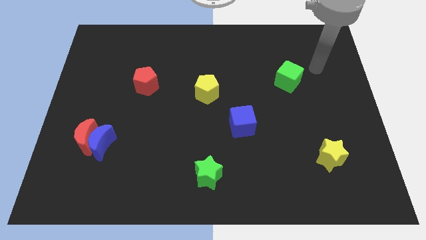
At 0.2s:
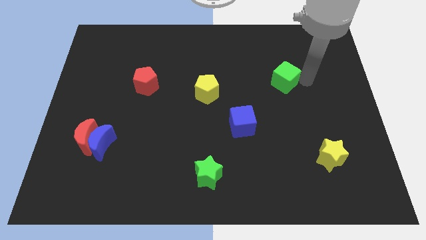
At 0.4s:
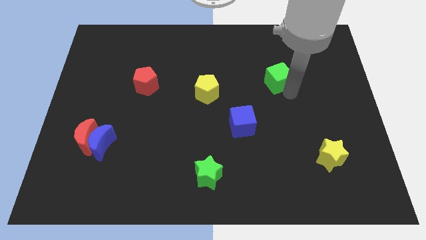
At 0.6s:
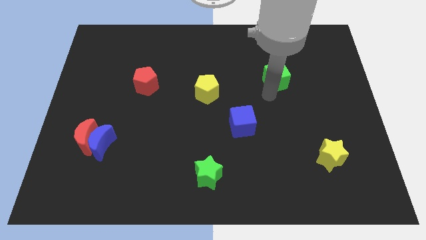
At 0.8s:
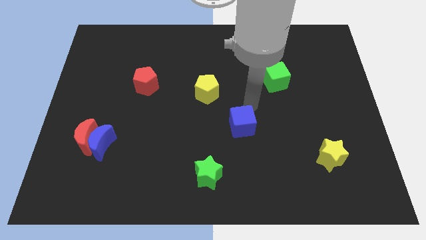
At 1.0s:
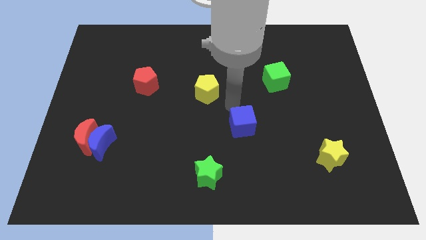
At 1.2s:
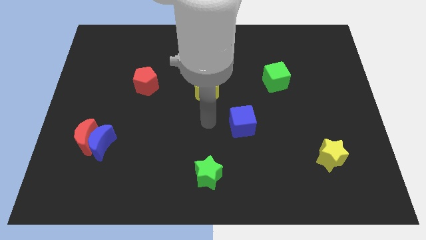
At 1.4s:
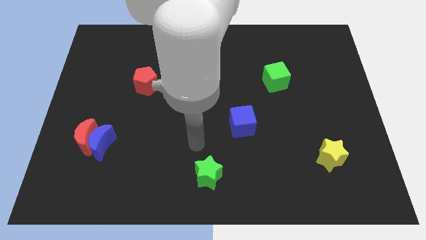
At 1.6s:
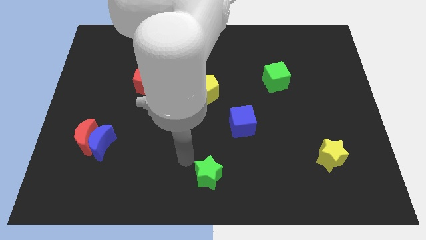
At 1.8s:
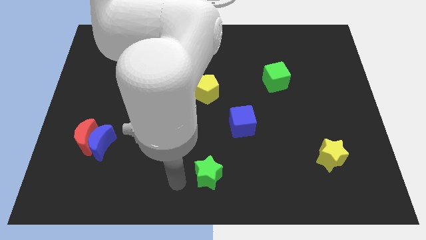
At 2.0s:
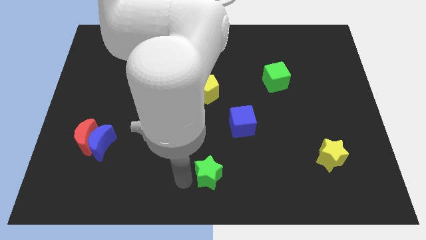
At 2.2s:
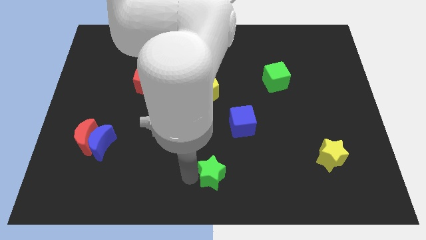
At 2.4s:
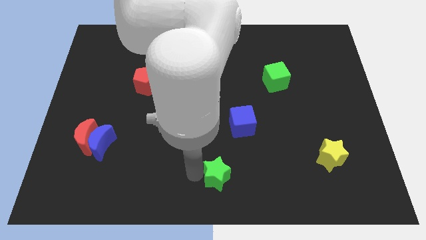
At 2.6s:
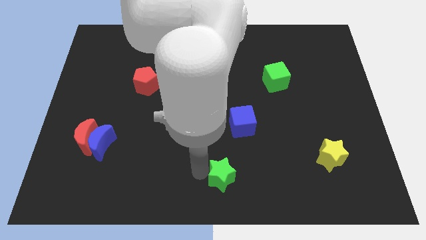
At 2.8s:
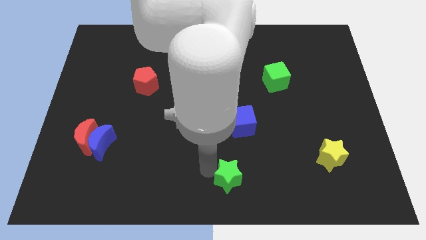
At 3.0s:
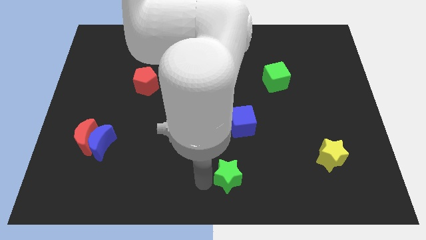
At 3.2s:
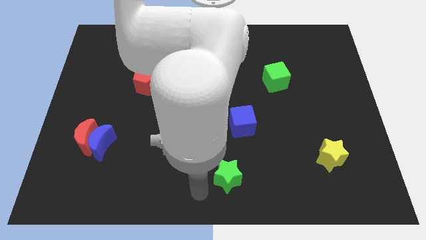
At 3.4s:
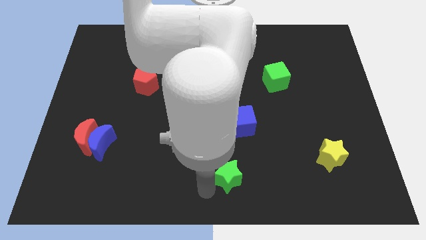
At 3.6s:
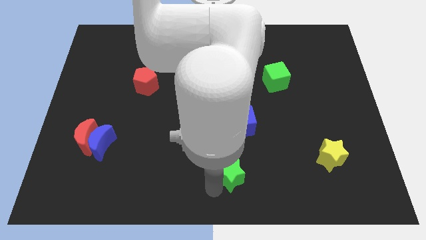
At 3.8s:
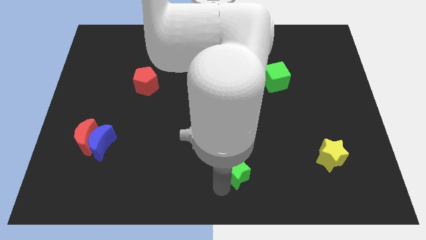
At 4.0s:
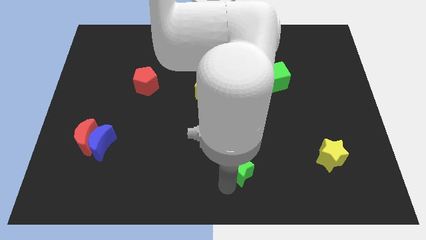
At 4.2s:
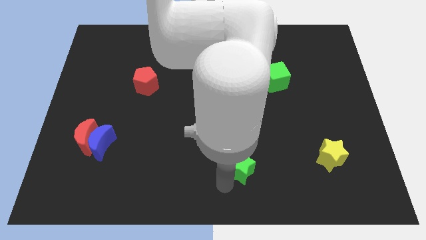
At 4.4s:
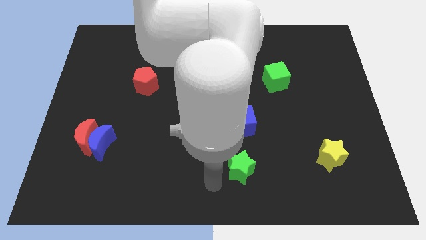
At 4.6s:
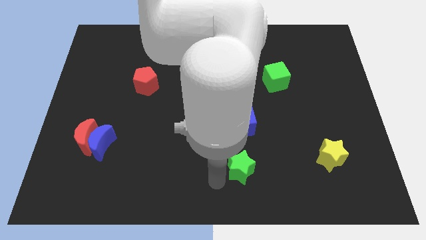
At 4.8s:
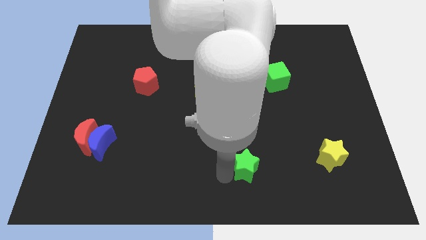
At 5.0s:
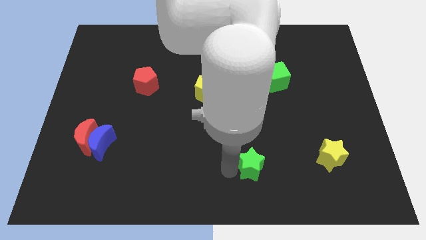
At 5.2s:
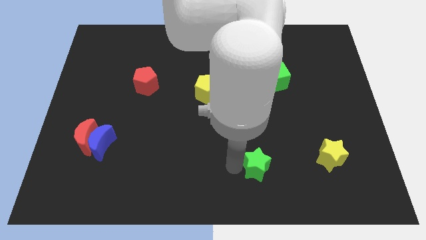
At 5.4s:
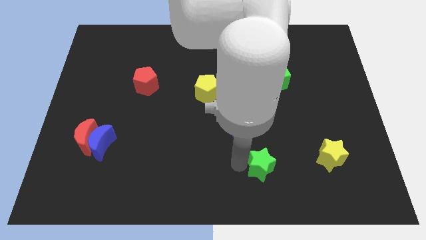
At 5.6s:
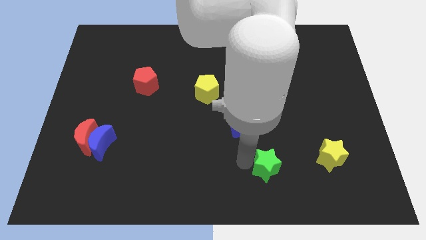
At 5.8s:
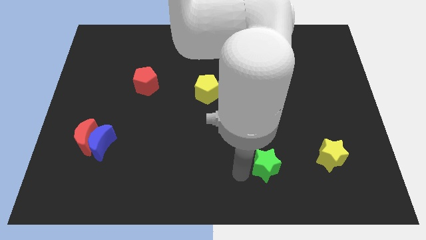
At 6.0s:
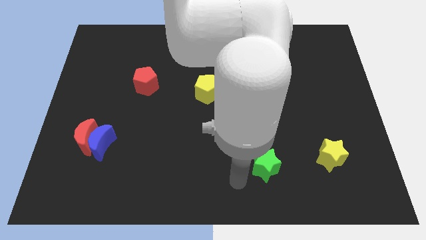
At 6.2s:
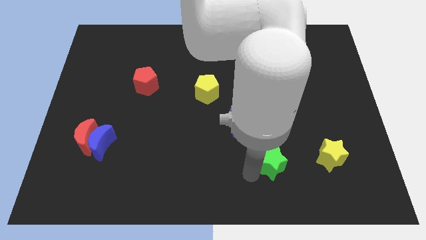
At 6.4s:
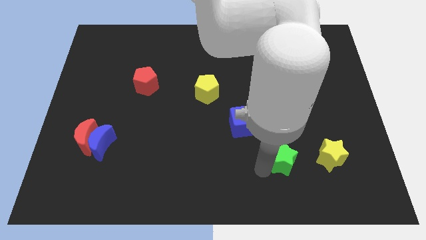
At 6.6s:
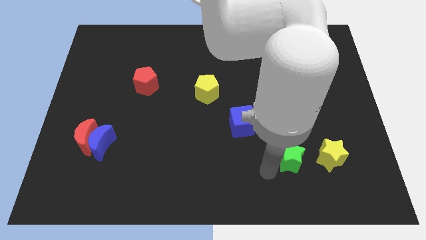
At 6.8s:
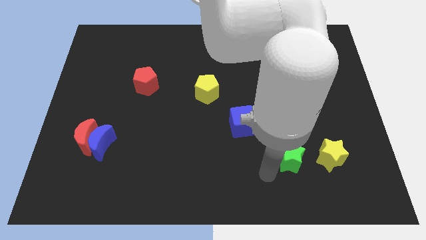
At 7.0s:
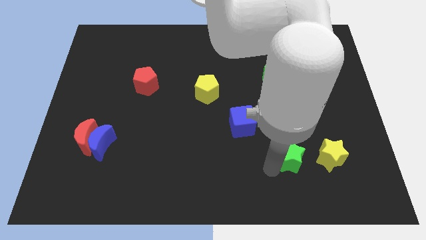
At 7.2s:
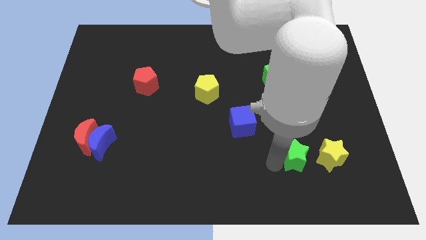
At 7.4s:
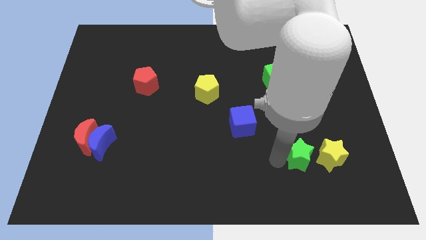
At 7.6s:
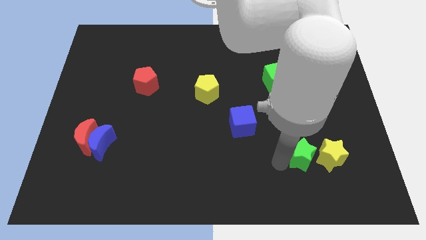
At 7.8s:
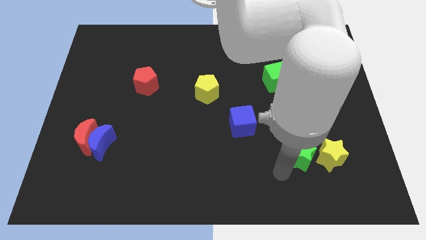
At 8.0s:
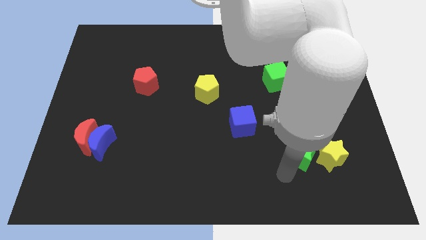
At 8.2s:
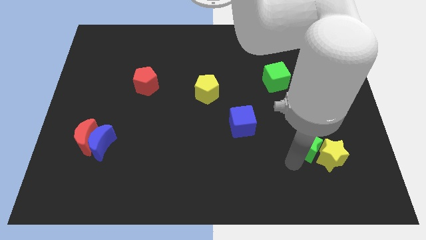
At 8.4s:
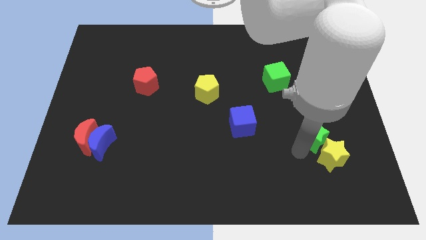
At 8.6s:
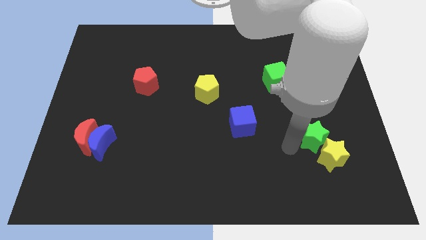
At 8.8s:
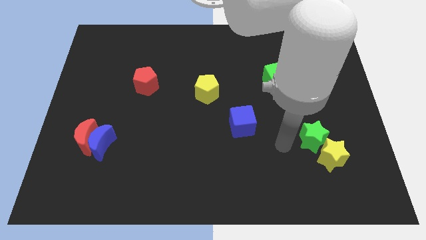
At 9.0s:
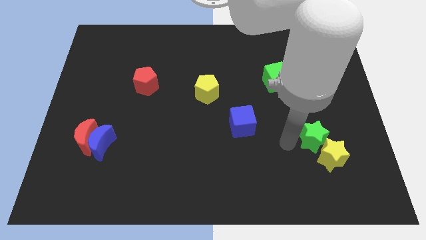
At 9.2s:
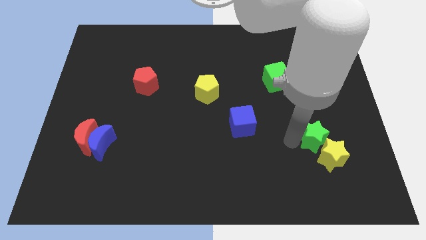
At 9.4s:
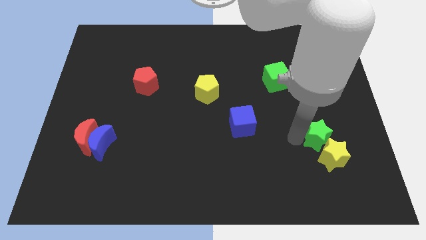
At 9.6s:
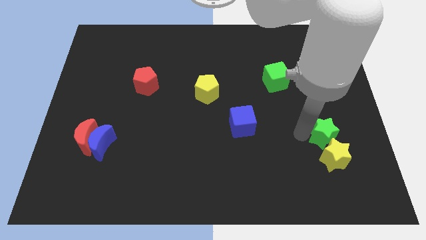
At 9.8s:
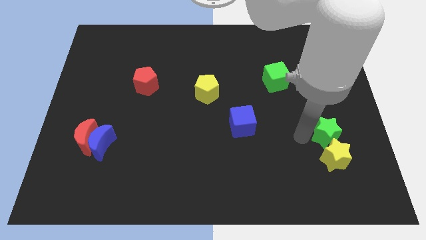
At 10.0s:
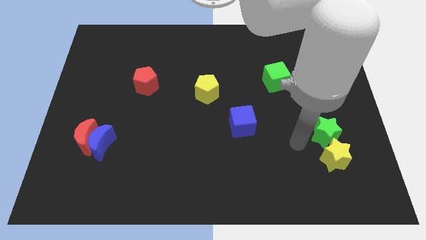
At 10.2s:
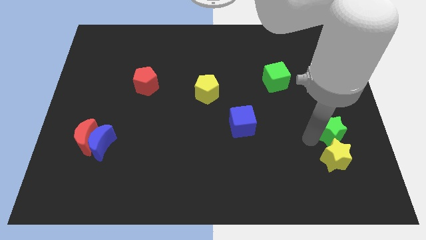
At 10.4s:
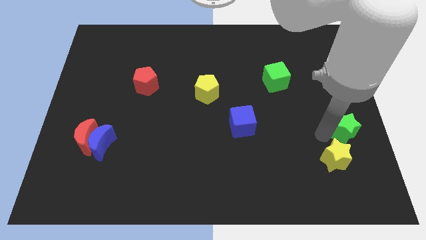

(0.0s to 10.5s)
slide the green star to the right side of the board

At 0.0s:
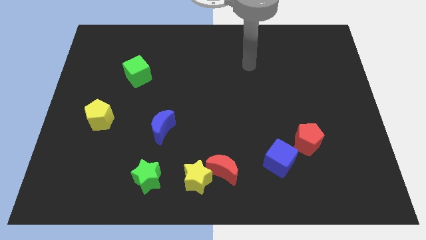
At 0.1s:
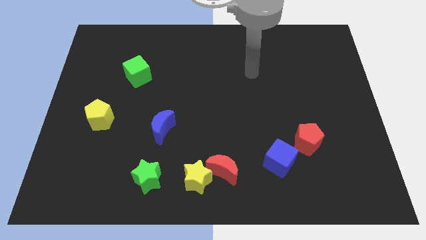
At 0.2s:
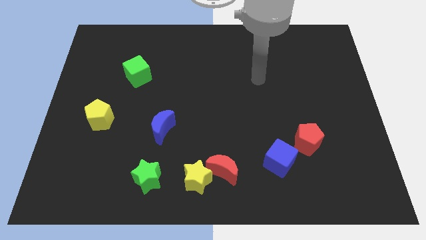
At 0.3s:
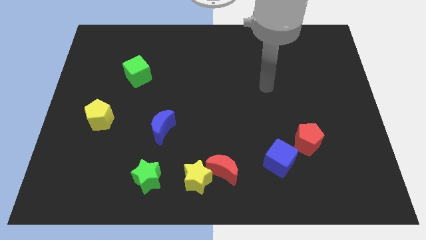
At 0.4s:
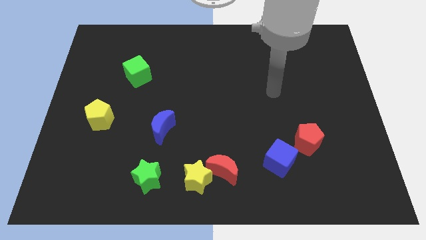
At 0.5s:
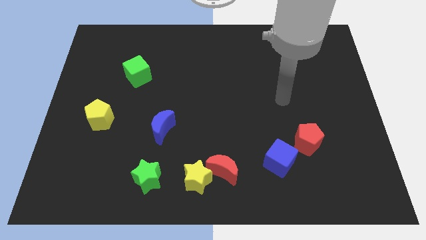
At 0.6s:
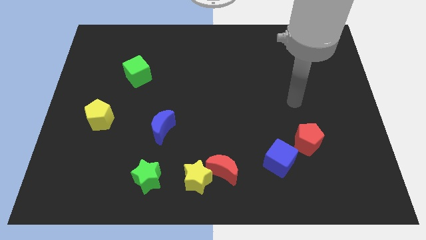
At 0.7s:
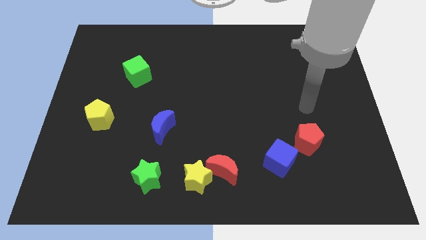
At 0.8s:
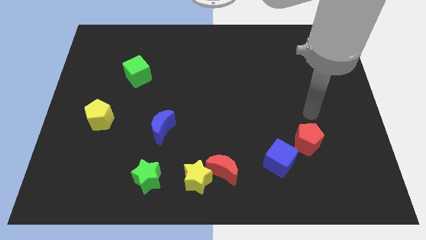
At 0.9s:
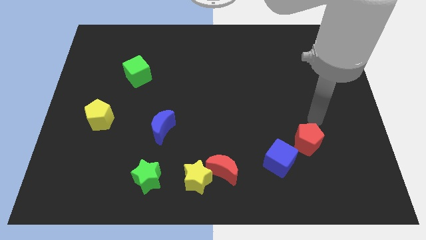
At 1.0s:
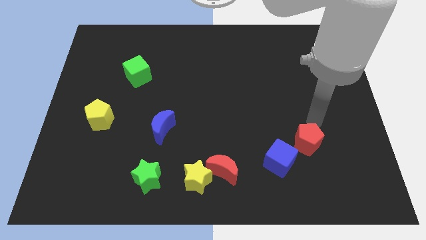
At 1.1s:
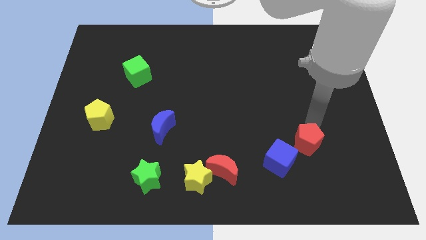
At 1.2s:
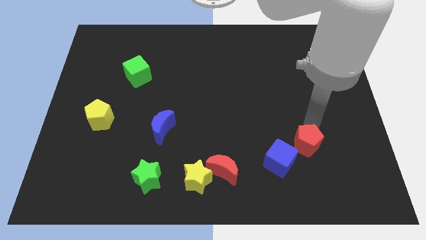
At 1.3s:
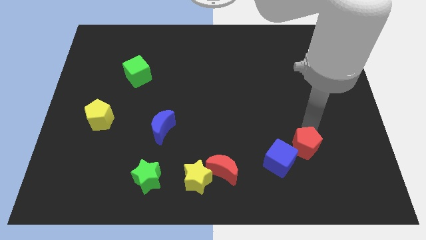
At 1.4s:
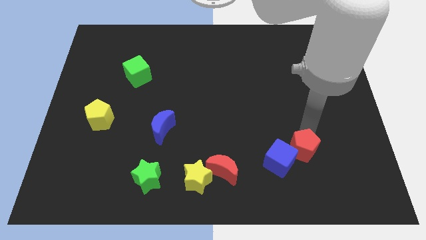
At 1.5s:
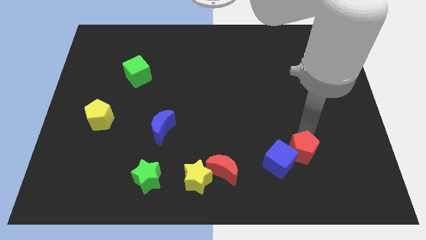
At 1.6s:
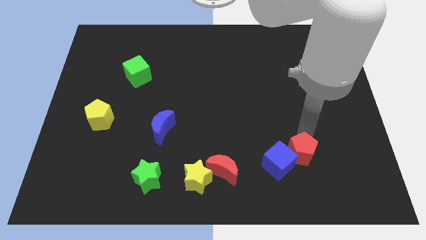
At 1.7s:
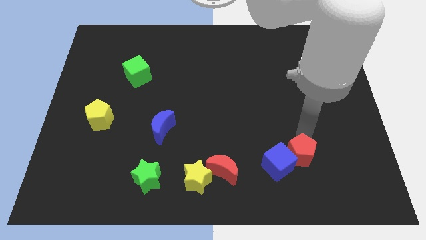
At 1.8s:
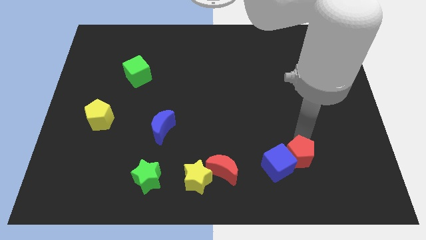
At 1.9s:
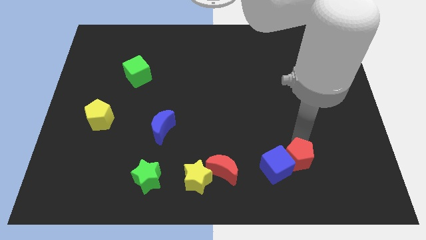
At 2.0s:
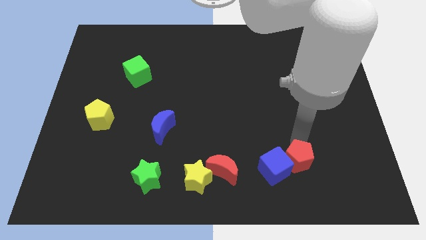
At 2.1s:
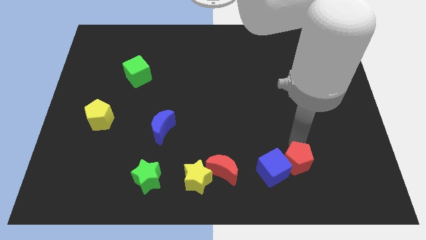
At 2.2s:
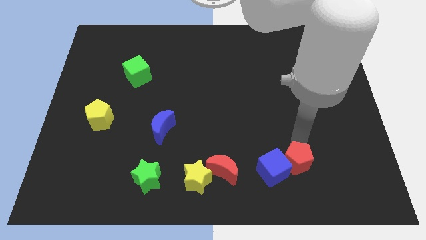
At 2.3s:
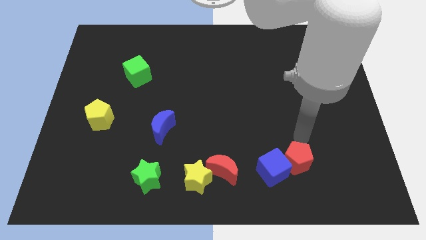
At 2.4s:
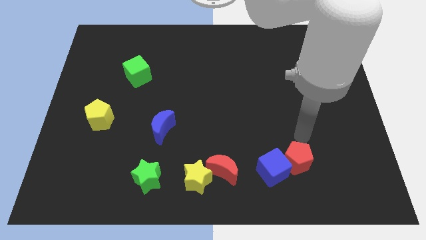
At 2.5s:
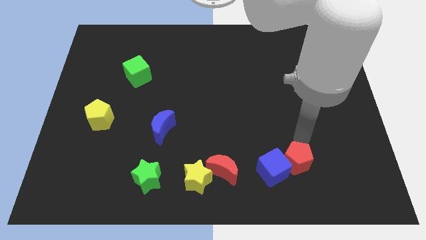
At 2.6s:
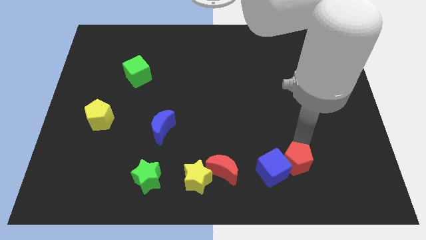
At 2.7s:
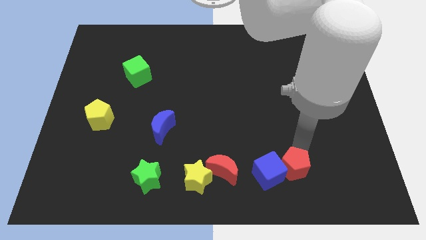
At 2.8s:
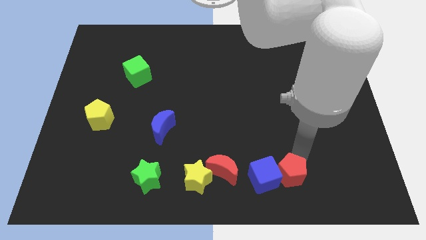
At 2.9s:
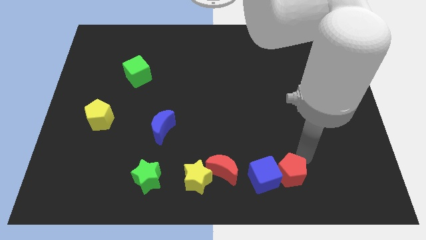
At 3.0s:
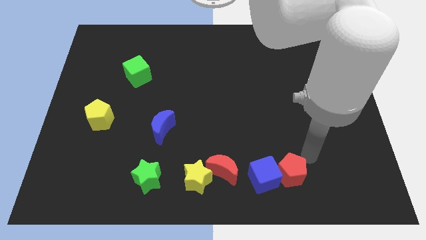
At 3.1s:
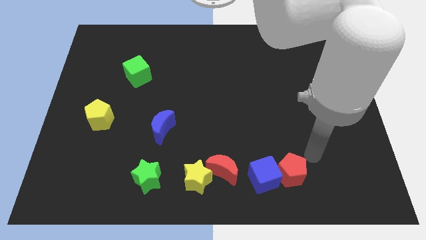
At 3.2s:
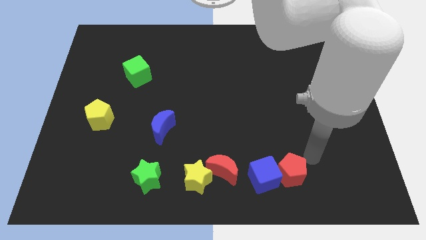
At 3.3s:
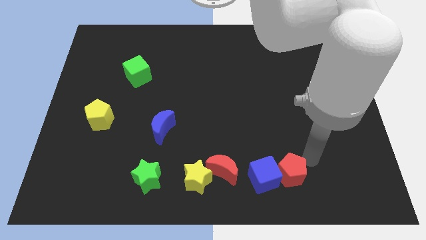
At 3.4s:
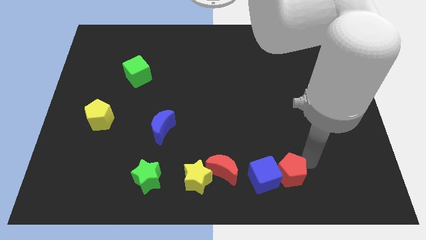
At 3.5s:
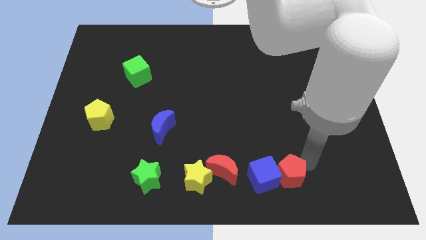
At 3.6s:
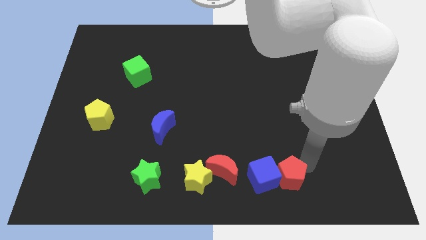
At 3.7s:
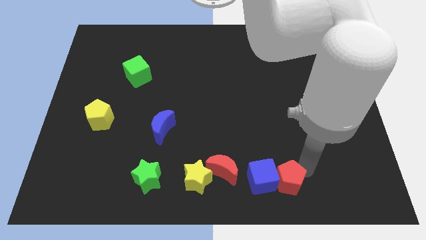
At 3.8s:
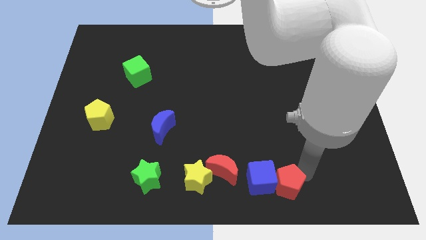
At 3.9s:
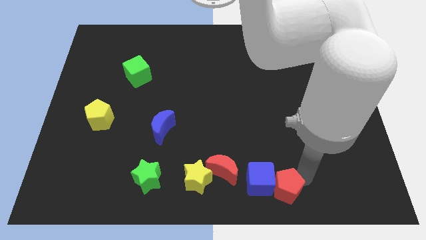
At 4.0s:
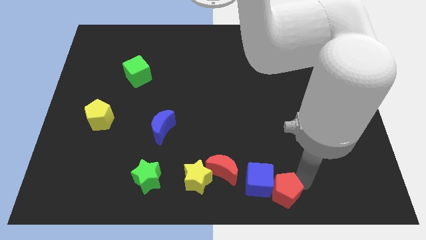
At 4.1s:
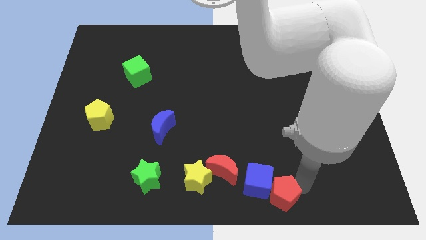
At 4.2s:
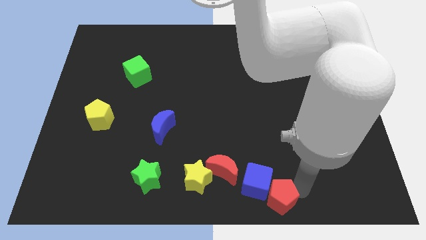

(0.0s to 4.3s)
put the red pentagon to the bottom side
